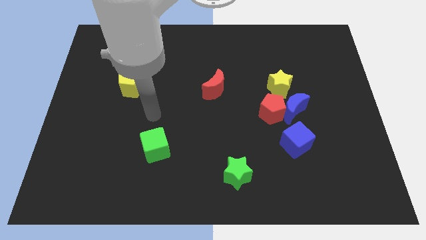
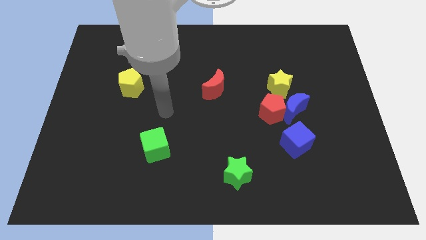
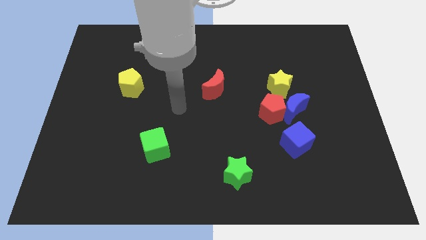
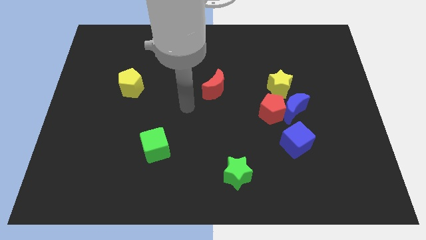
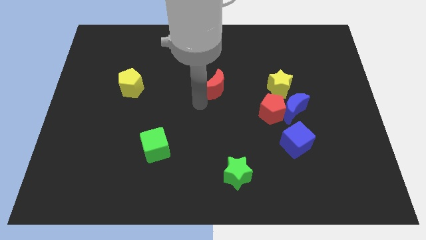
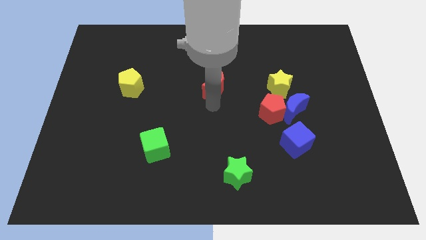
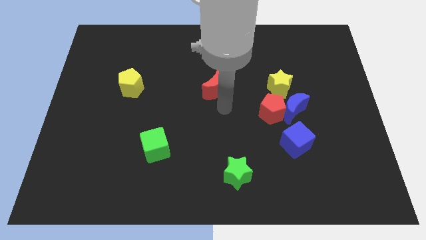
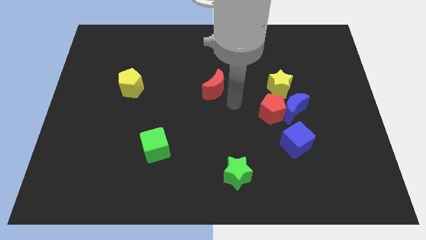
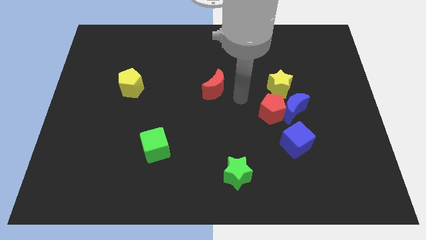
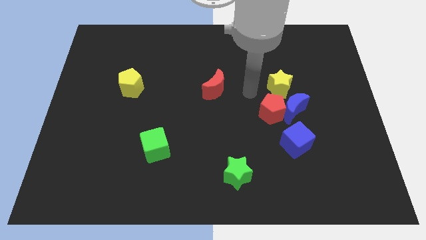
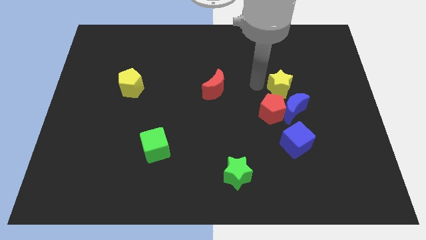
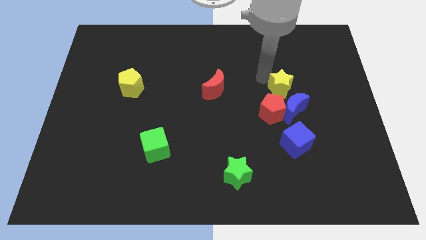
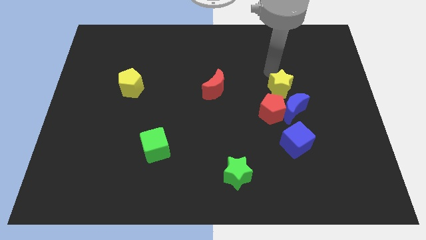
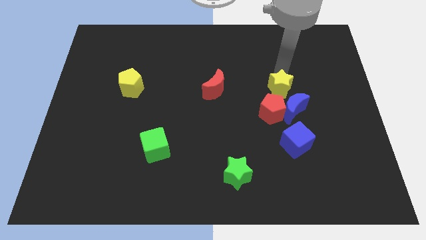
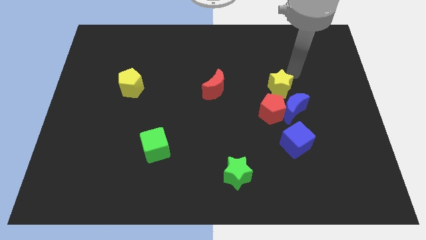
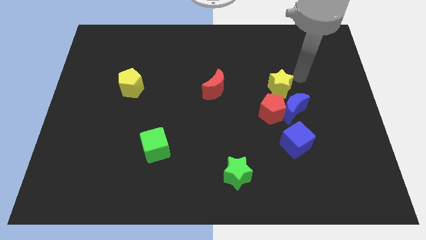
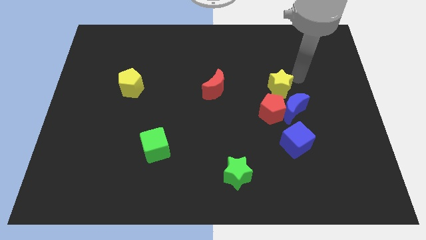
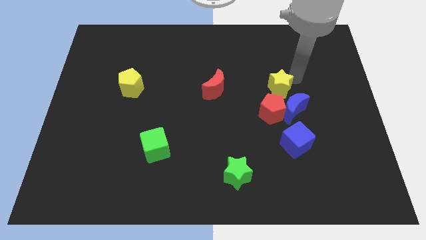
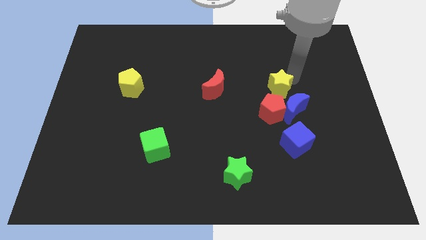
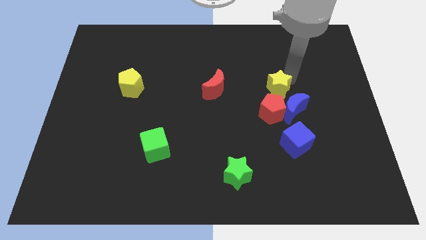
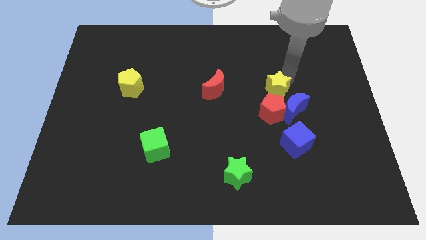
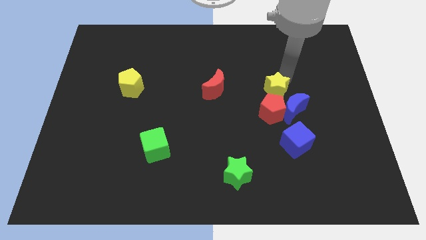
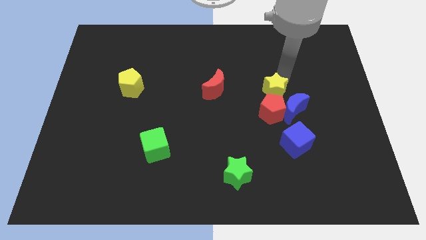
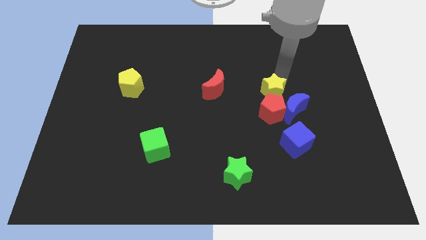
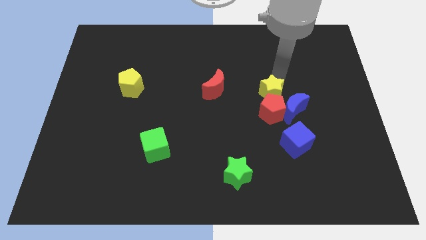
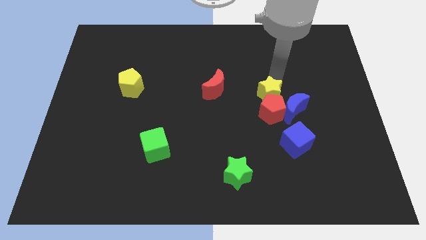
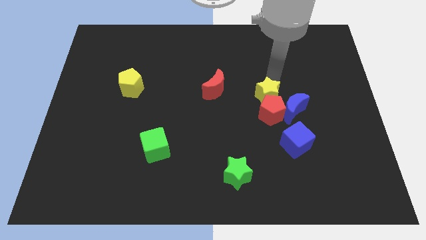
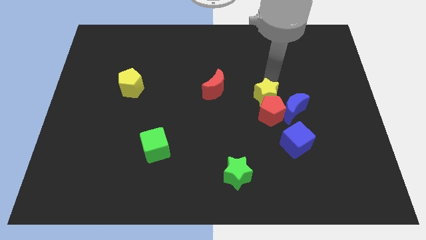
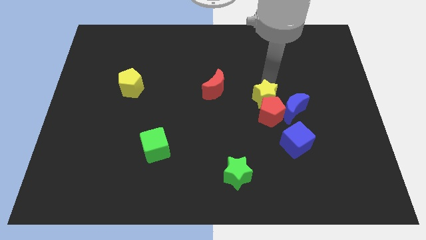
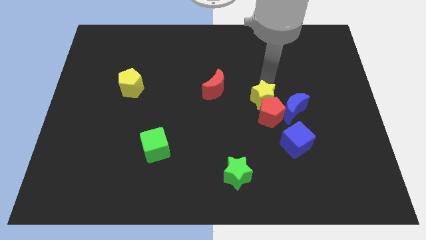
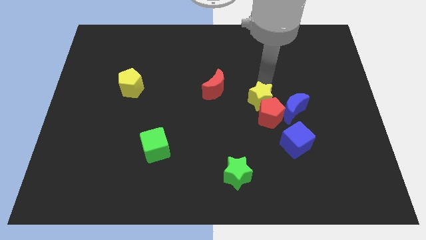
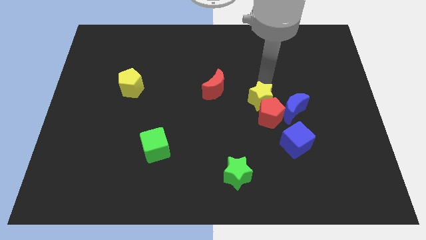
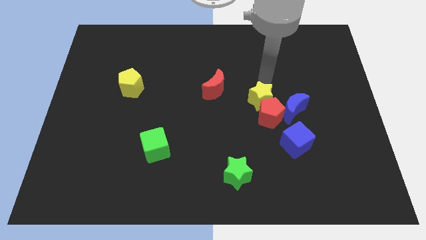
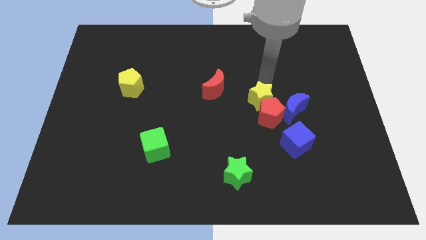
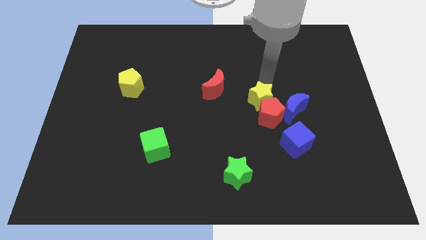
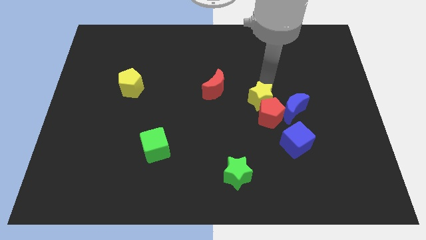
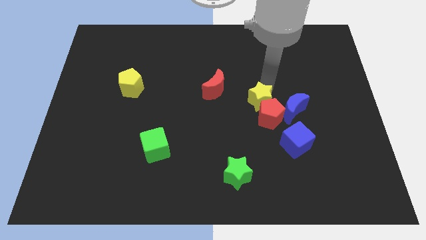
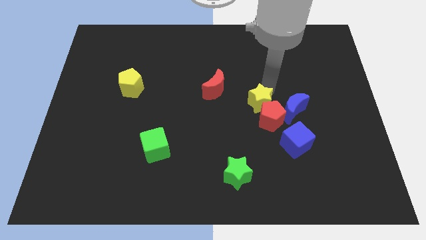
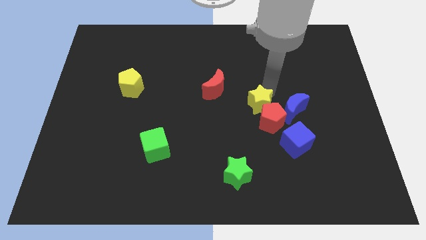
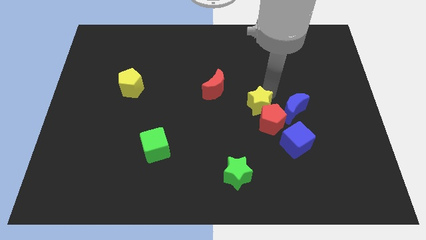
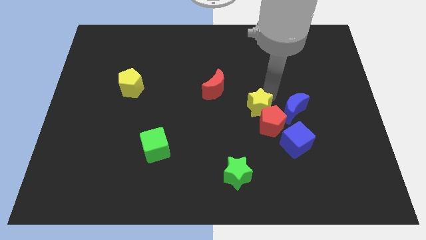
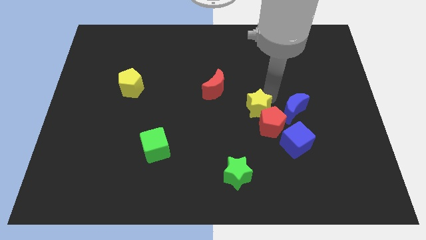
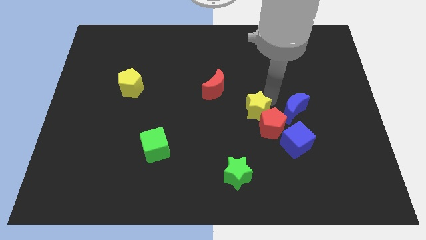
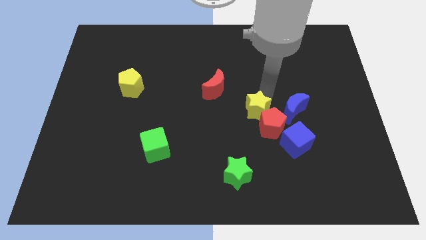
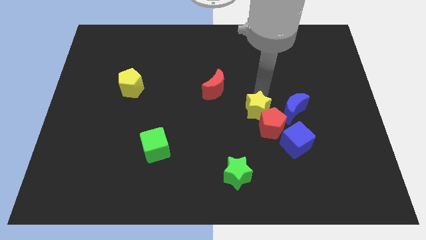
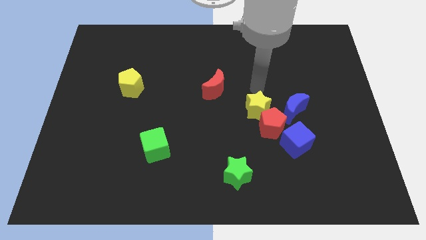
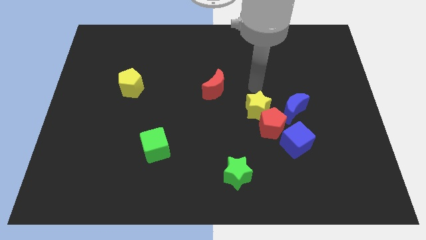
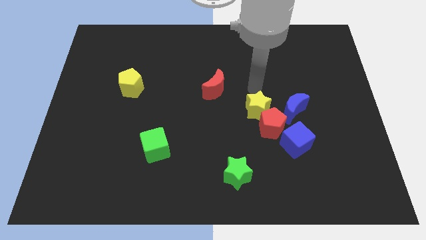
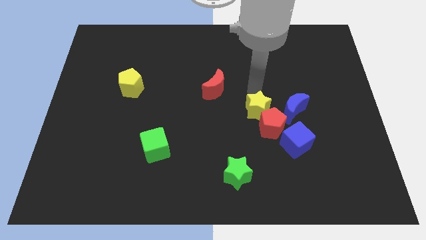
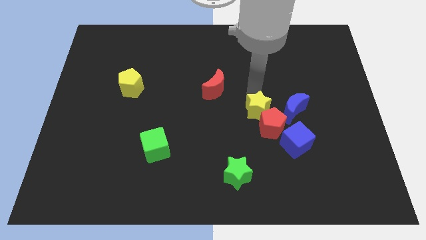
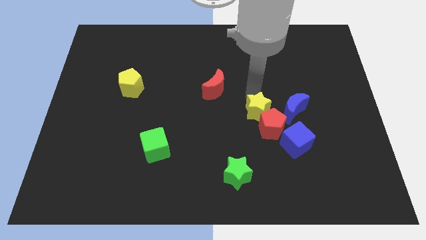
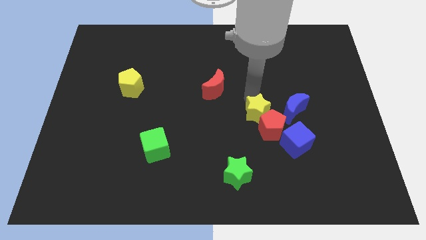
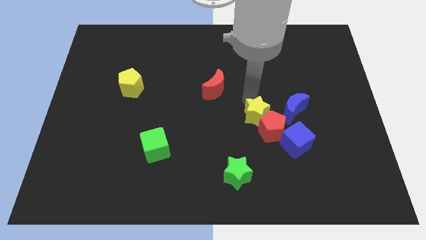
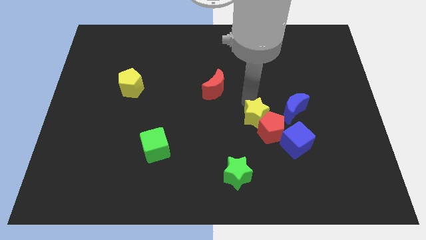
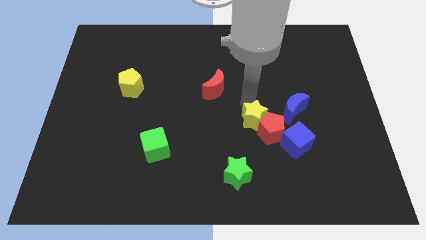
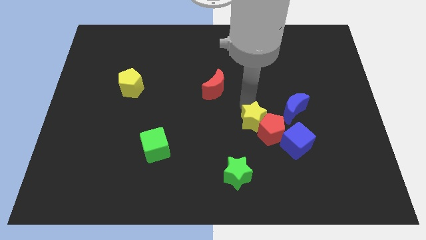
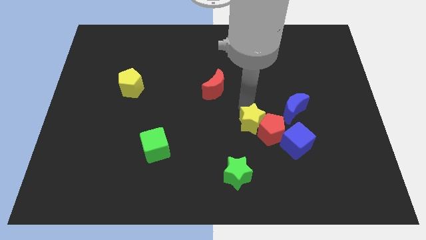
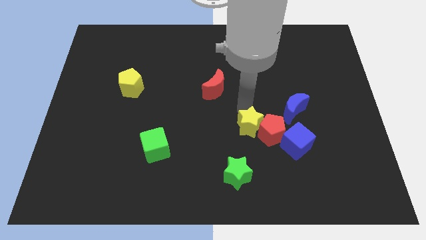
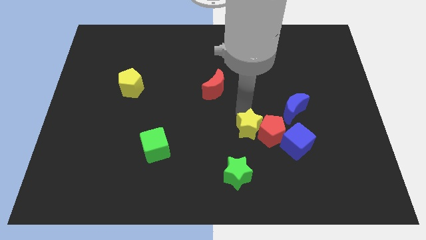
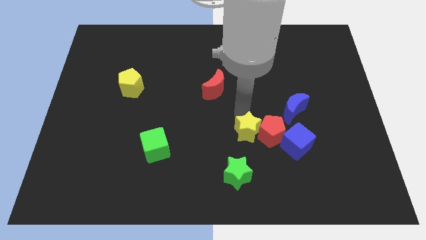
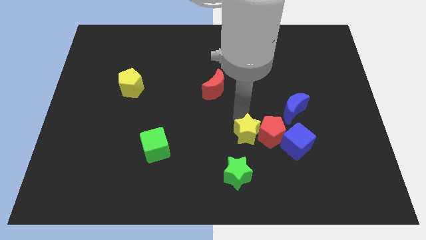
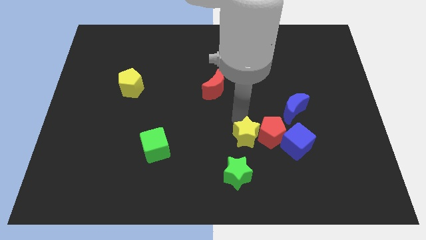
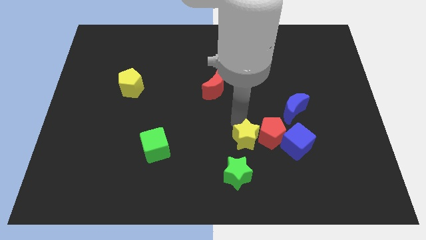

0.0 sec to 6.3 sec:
push the yellow star diagonally up and to the right of the green star
